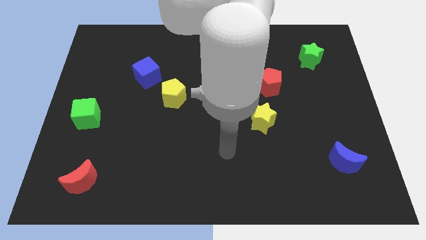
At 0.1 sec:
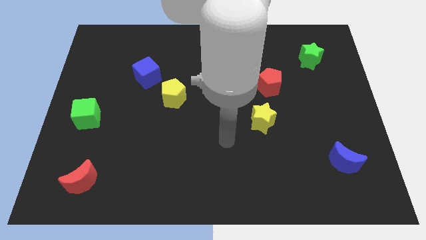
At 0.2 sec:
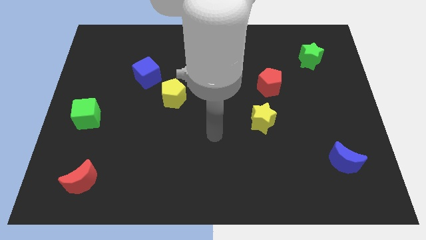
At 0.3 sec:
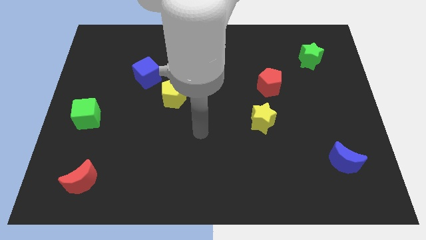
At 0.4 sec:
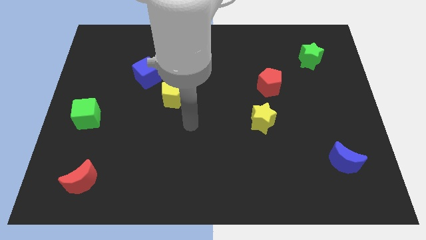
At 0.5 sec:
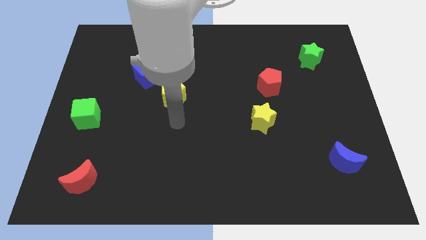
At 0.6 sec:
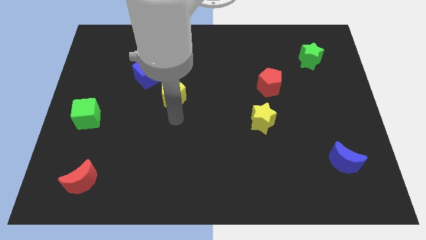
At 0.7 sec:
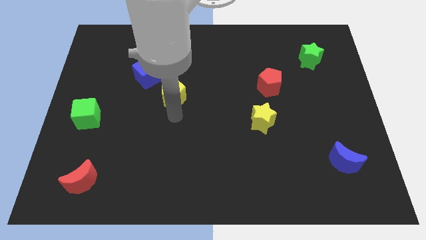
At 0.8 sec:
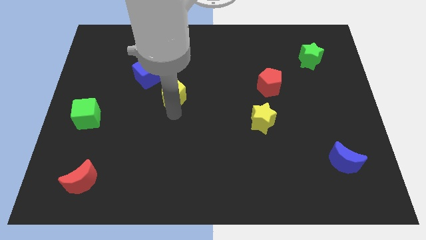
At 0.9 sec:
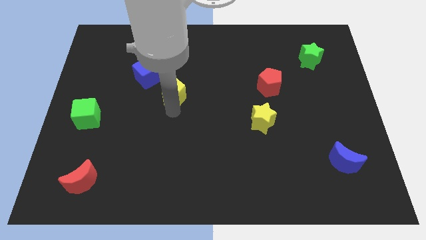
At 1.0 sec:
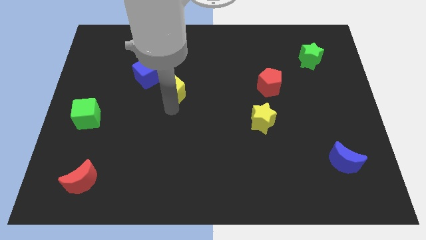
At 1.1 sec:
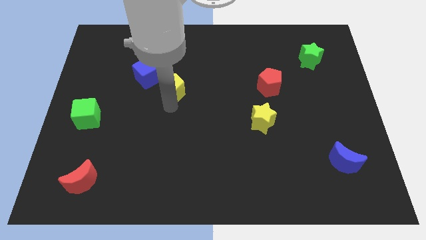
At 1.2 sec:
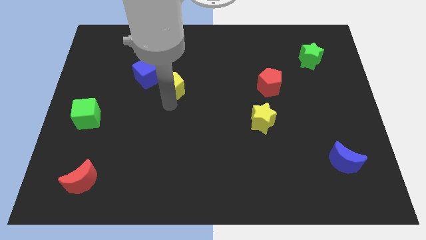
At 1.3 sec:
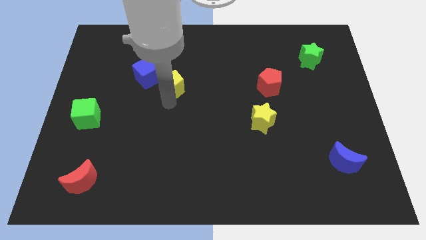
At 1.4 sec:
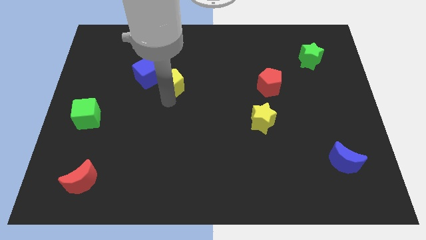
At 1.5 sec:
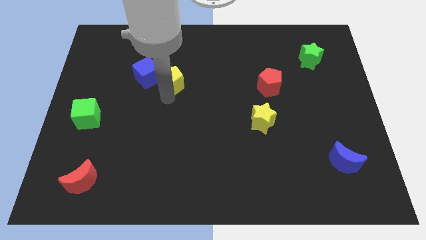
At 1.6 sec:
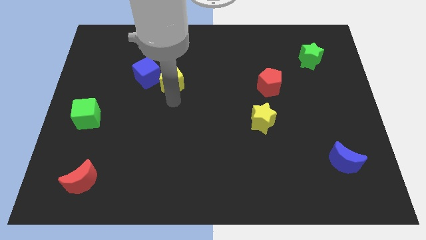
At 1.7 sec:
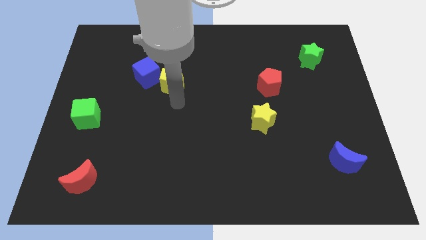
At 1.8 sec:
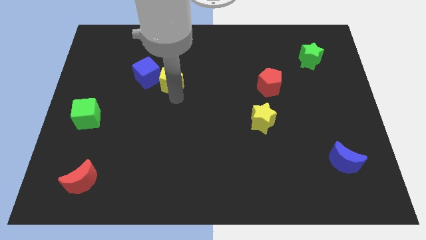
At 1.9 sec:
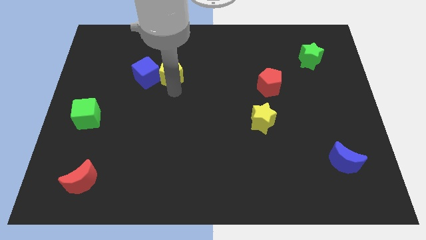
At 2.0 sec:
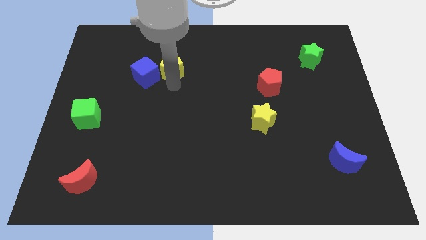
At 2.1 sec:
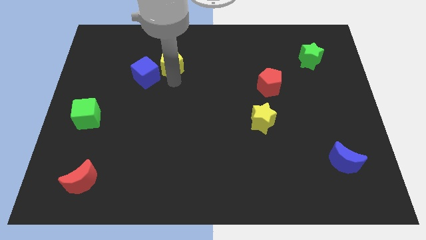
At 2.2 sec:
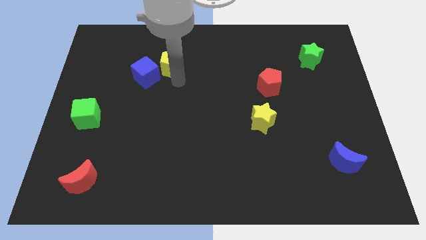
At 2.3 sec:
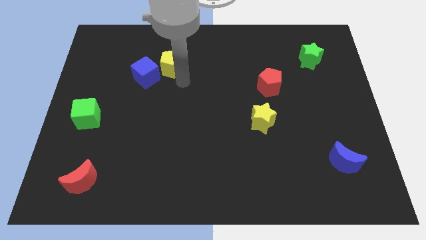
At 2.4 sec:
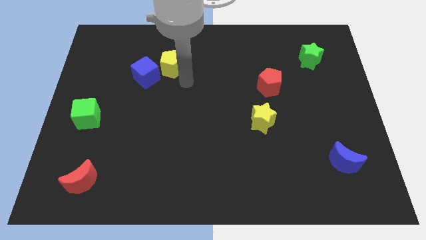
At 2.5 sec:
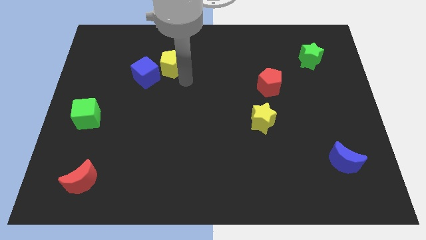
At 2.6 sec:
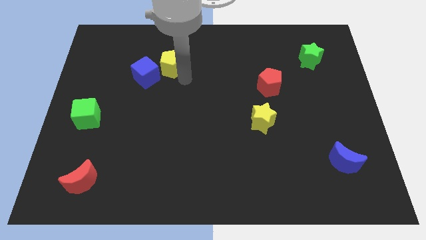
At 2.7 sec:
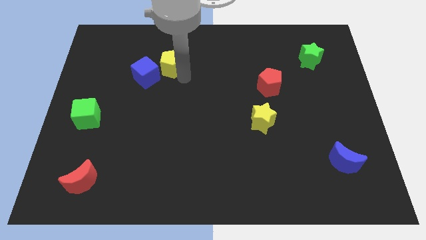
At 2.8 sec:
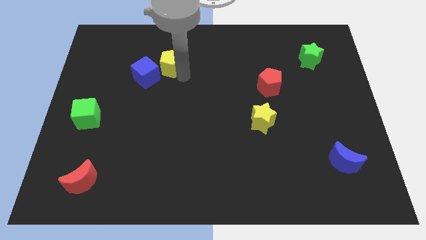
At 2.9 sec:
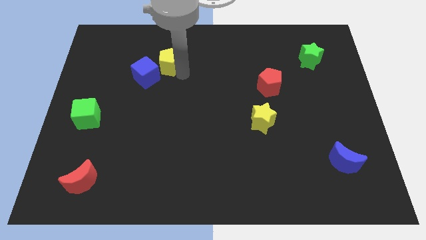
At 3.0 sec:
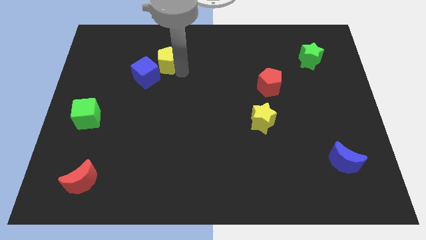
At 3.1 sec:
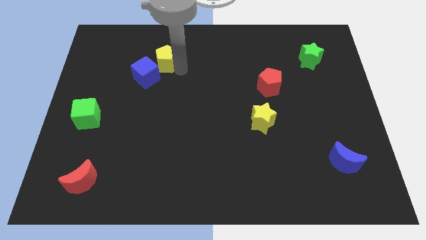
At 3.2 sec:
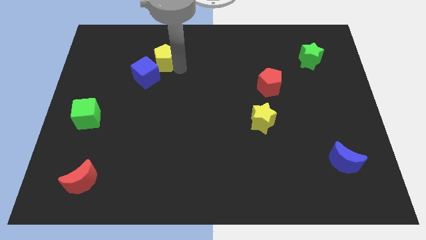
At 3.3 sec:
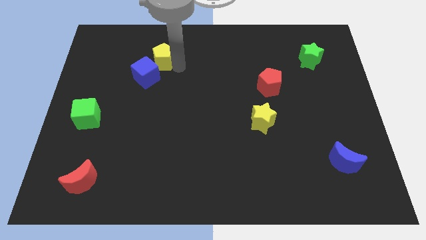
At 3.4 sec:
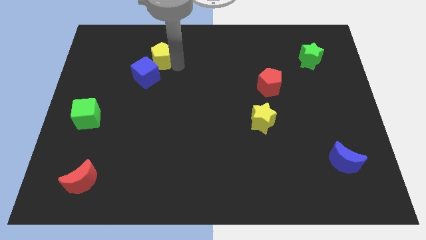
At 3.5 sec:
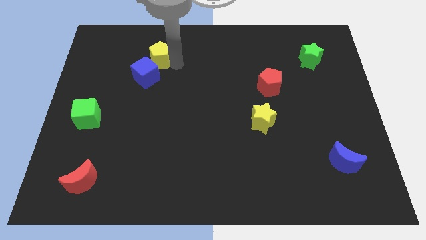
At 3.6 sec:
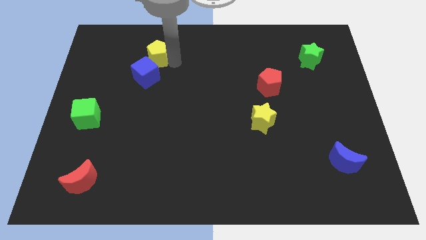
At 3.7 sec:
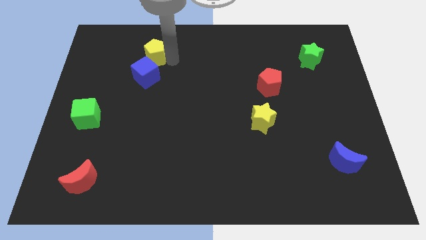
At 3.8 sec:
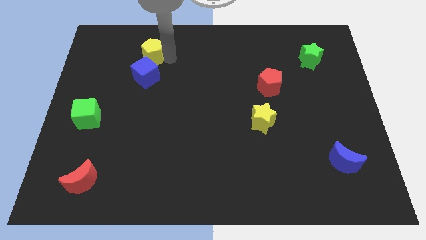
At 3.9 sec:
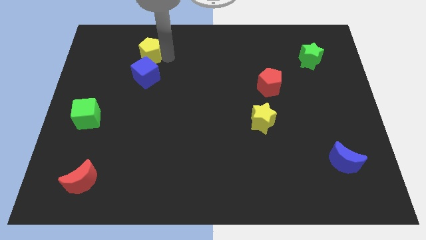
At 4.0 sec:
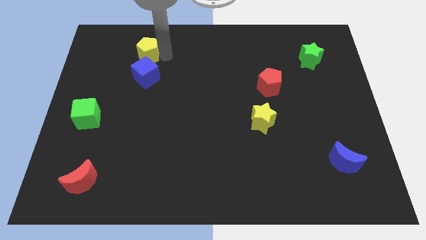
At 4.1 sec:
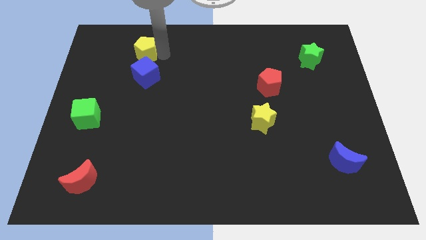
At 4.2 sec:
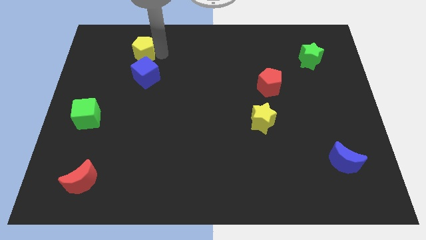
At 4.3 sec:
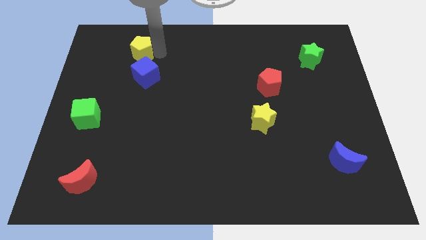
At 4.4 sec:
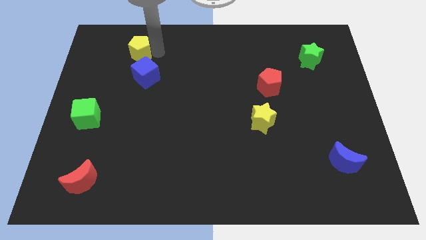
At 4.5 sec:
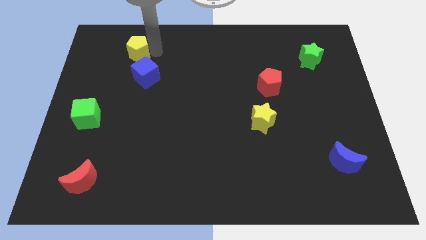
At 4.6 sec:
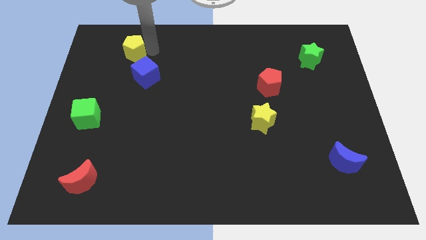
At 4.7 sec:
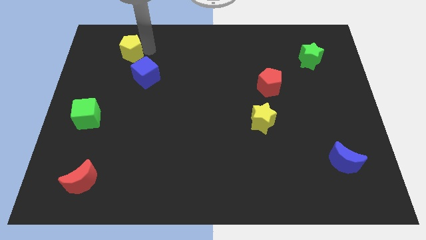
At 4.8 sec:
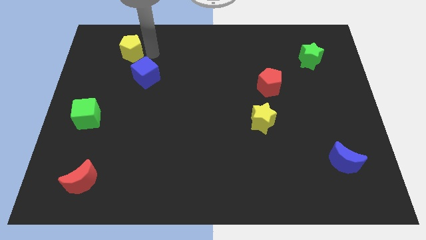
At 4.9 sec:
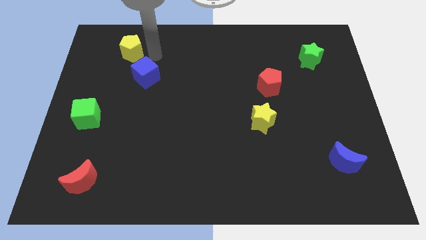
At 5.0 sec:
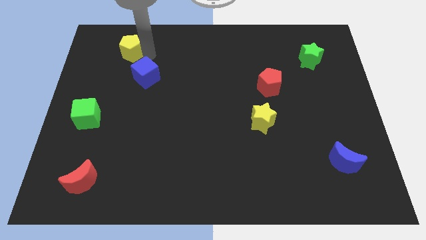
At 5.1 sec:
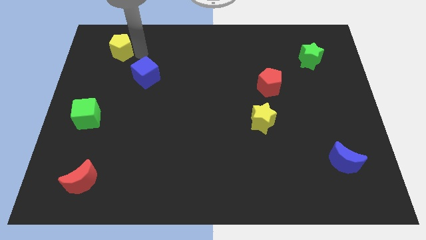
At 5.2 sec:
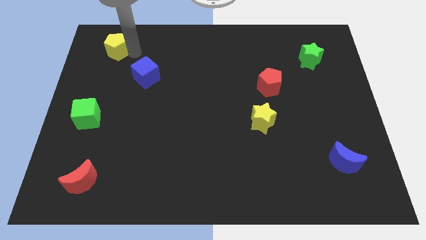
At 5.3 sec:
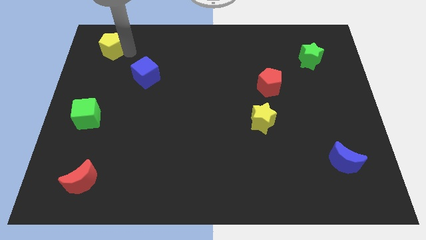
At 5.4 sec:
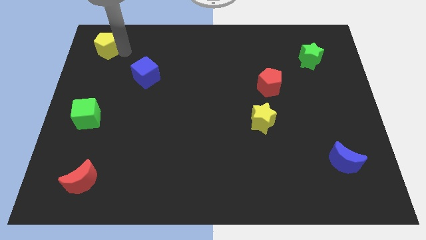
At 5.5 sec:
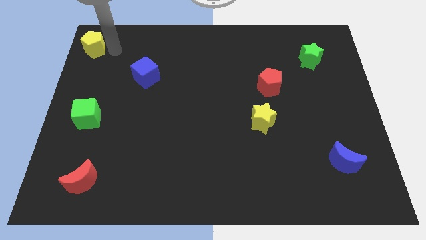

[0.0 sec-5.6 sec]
put the yellow pentagon to the top left of the board

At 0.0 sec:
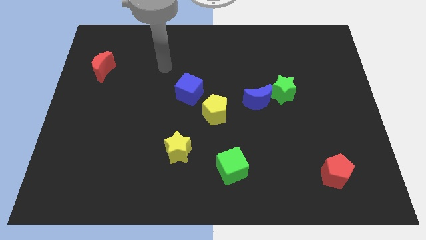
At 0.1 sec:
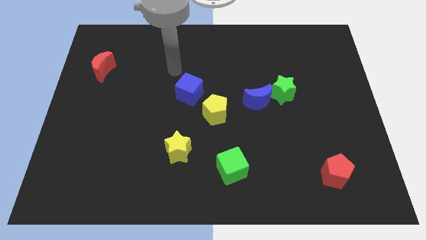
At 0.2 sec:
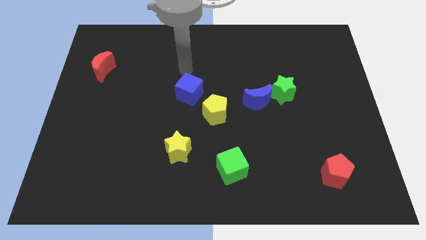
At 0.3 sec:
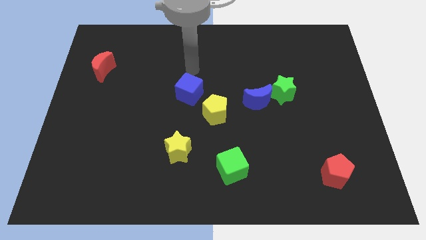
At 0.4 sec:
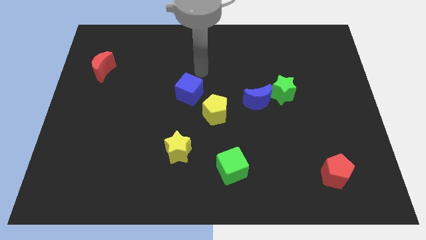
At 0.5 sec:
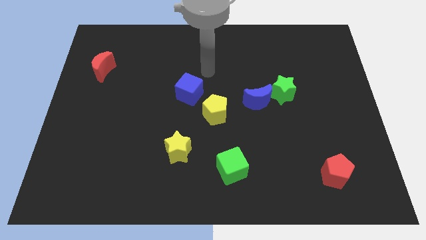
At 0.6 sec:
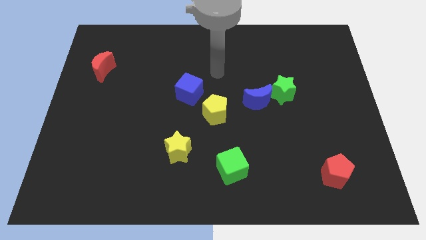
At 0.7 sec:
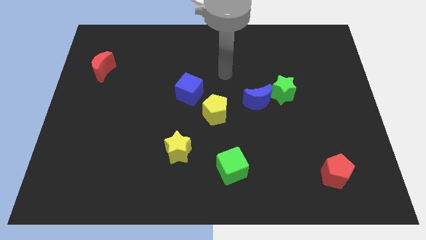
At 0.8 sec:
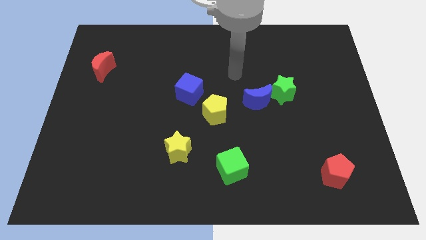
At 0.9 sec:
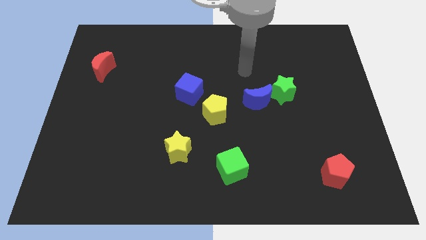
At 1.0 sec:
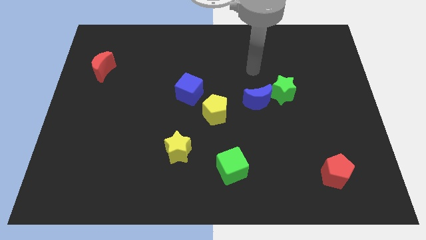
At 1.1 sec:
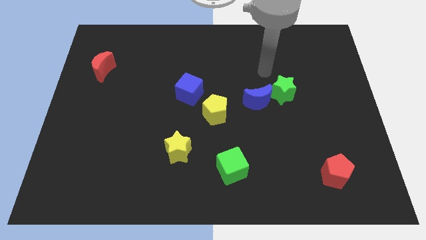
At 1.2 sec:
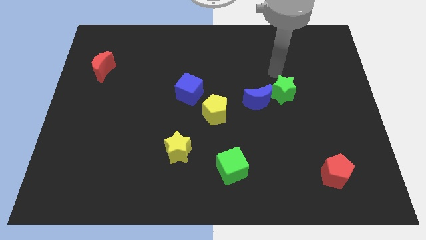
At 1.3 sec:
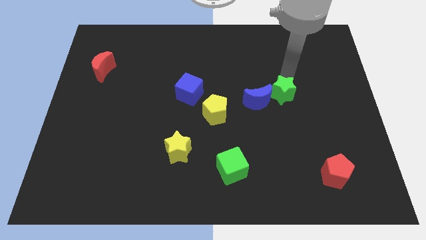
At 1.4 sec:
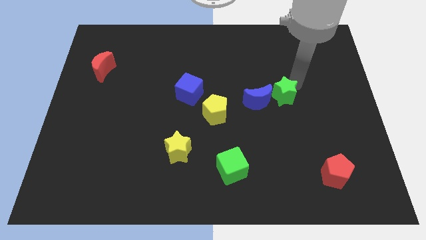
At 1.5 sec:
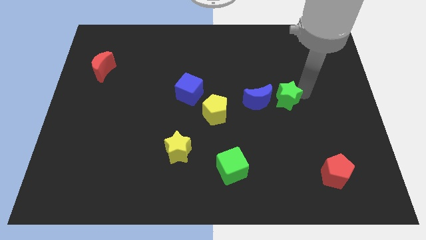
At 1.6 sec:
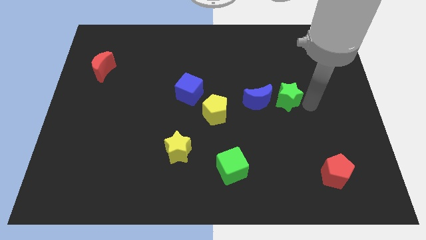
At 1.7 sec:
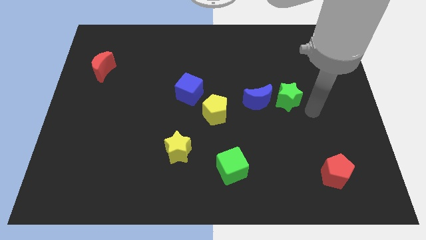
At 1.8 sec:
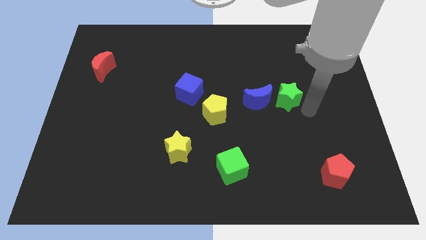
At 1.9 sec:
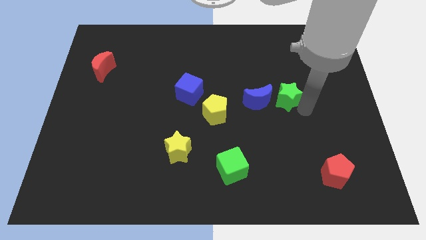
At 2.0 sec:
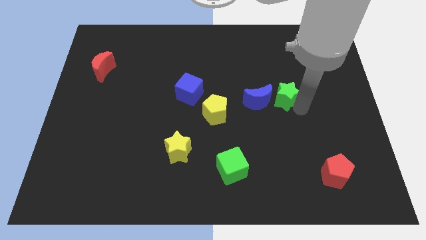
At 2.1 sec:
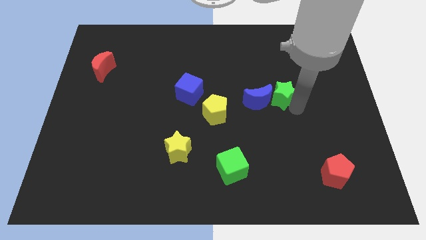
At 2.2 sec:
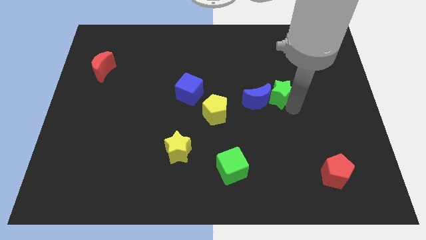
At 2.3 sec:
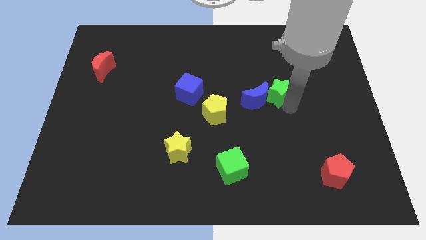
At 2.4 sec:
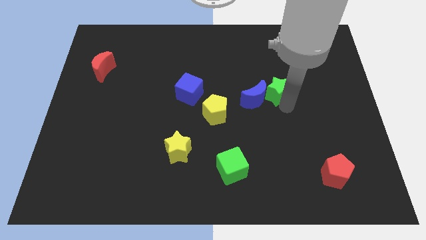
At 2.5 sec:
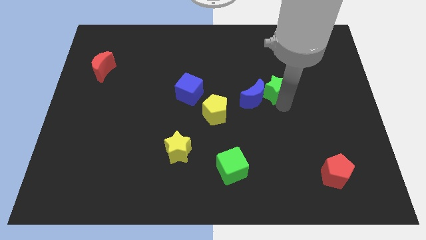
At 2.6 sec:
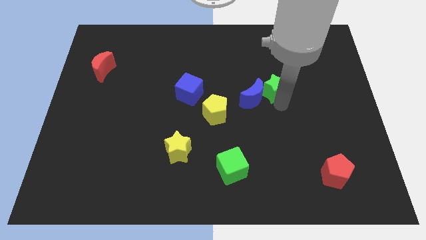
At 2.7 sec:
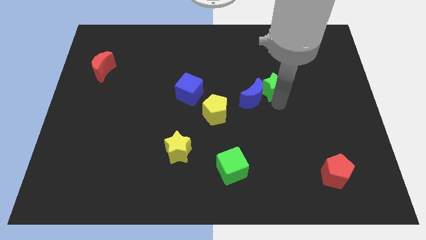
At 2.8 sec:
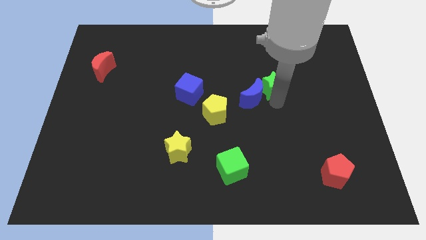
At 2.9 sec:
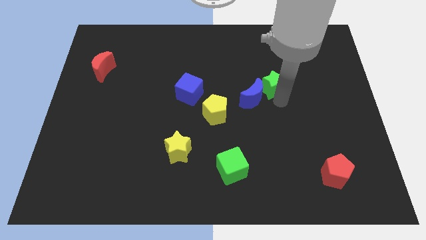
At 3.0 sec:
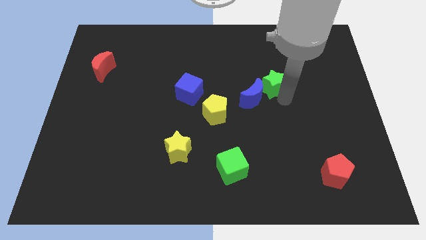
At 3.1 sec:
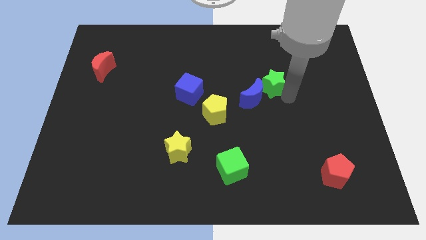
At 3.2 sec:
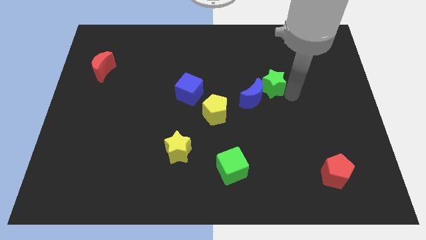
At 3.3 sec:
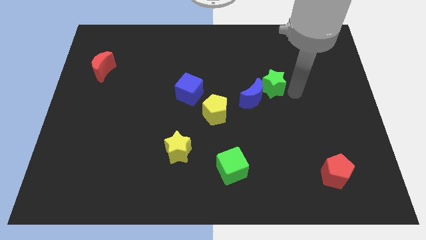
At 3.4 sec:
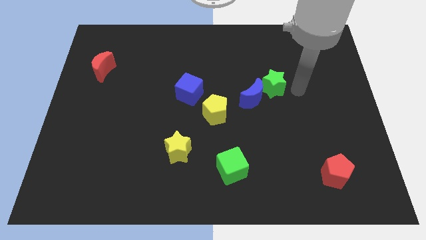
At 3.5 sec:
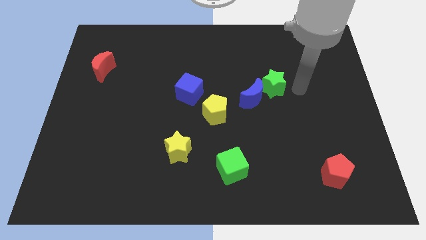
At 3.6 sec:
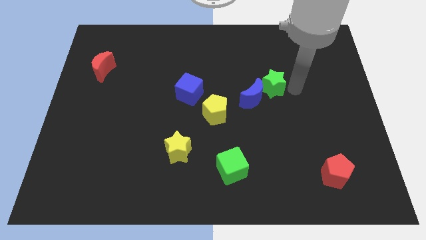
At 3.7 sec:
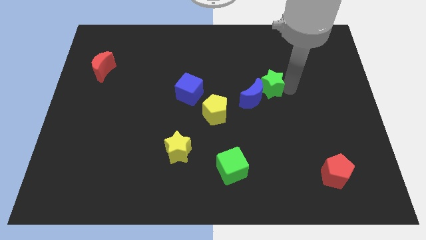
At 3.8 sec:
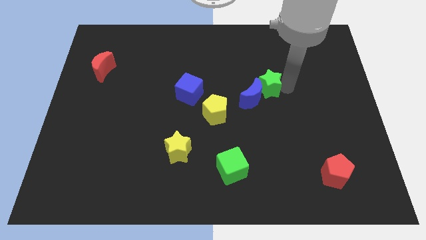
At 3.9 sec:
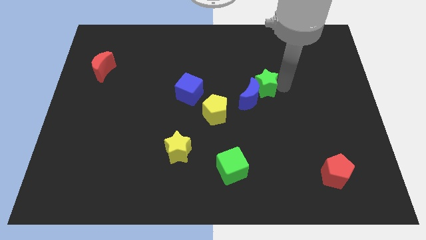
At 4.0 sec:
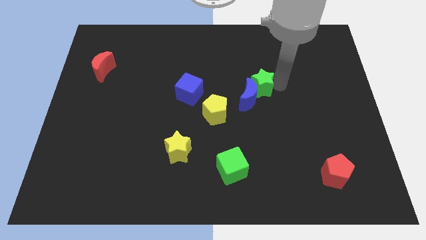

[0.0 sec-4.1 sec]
slide the green star to the middle
